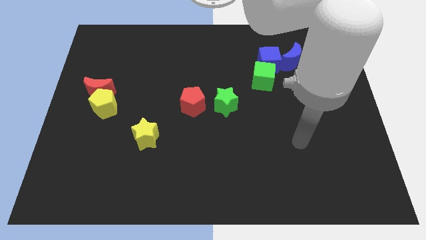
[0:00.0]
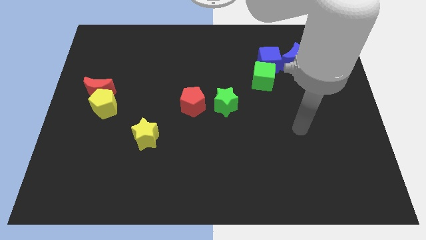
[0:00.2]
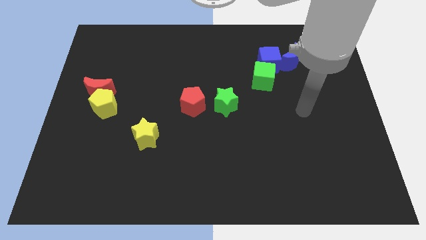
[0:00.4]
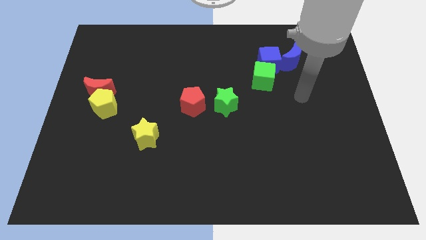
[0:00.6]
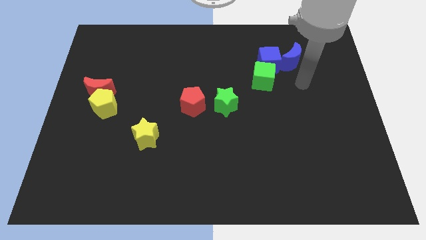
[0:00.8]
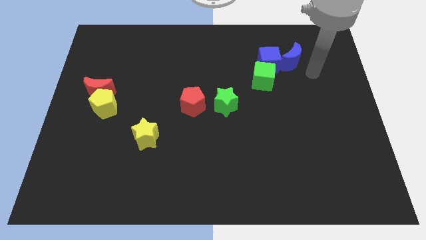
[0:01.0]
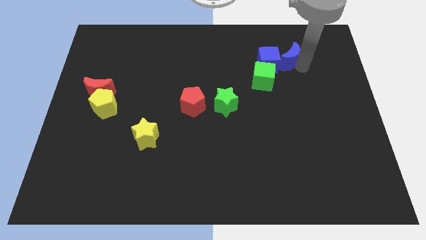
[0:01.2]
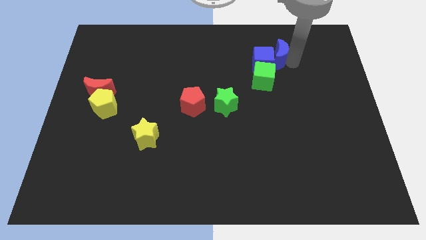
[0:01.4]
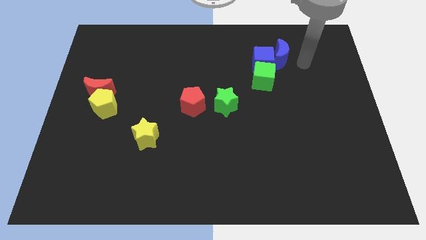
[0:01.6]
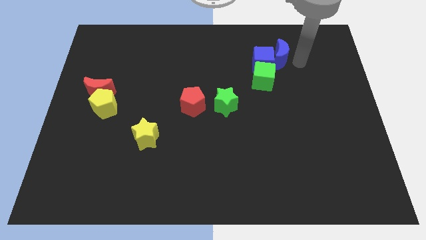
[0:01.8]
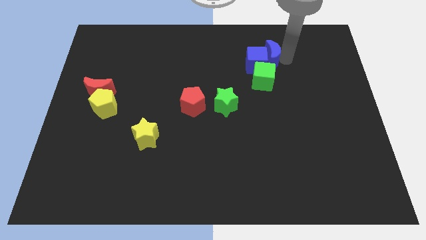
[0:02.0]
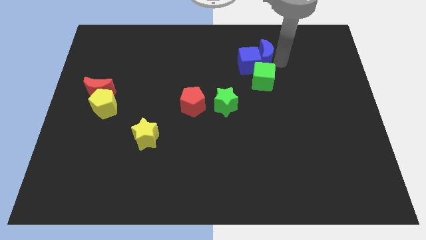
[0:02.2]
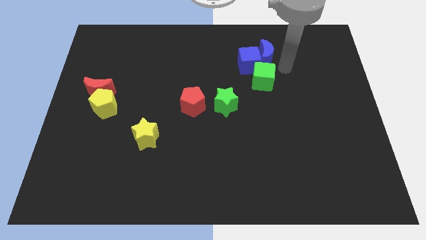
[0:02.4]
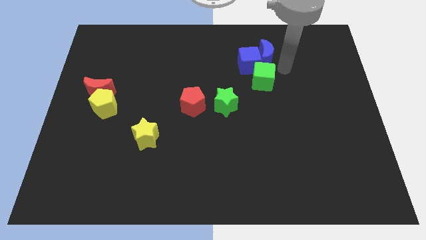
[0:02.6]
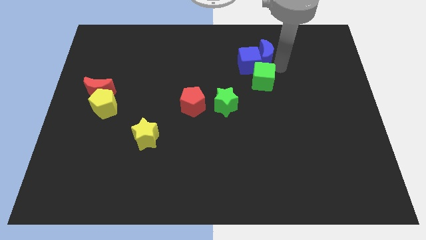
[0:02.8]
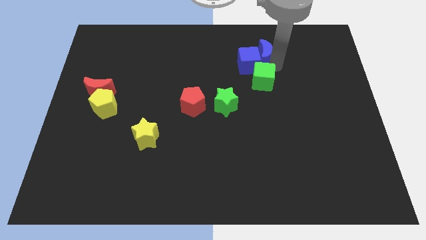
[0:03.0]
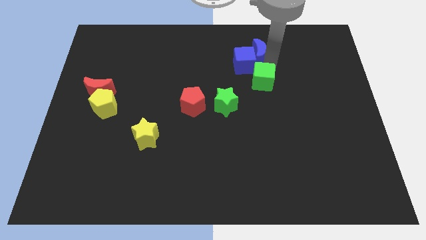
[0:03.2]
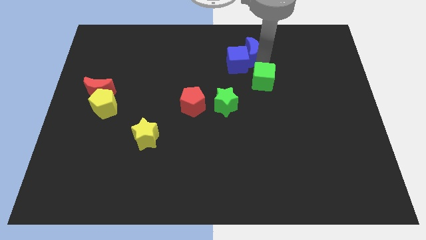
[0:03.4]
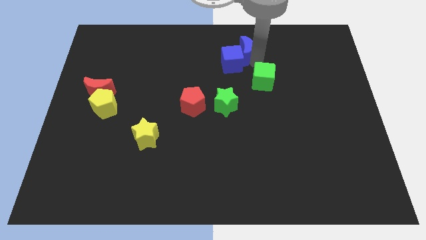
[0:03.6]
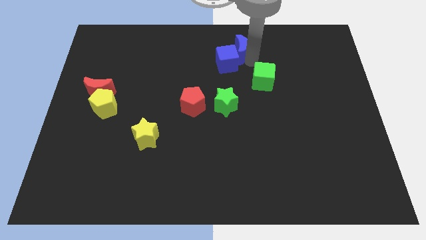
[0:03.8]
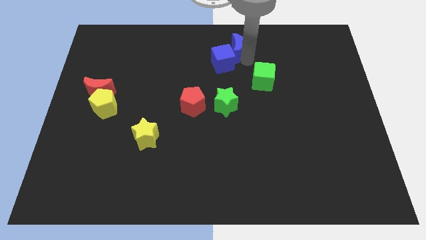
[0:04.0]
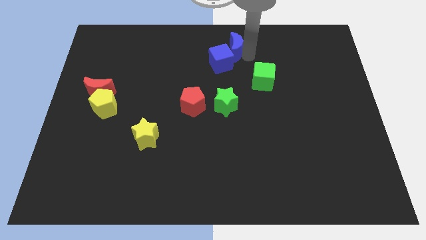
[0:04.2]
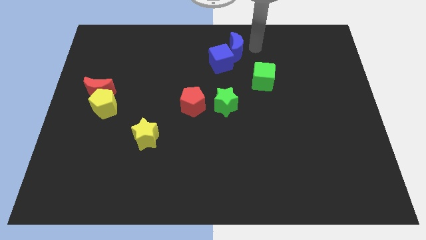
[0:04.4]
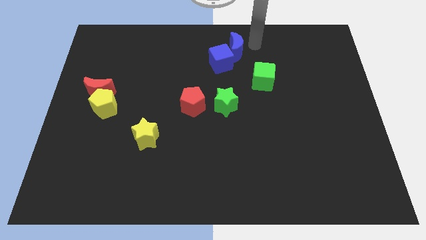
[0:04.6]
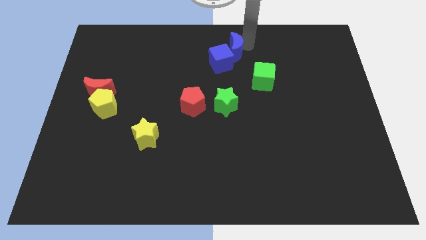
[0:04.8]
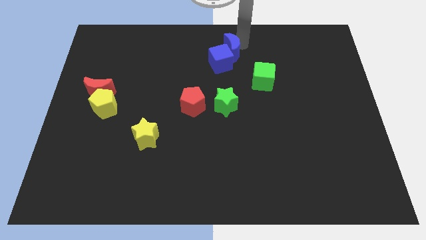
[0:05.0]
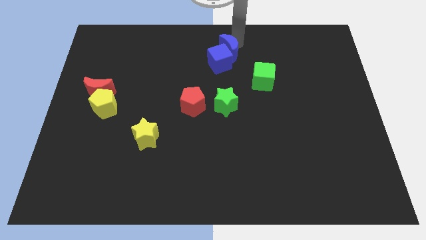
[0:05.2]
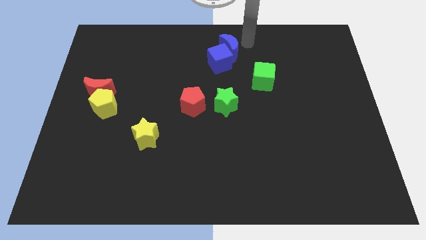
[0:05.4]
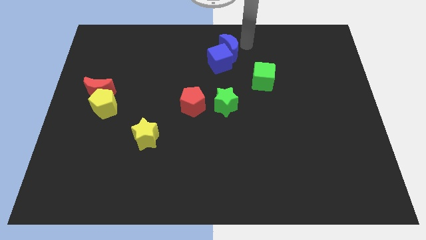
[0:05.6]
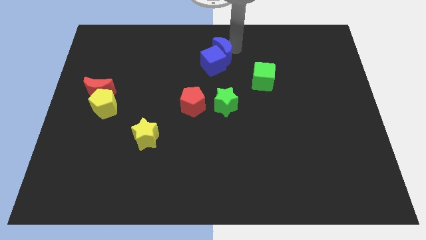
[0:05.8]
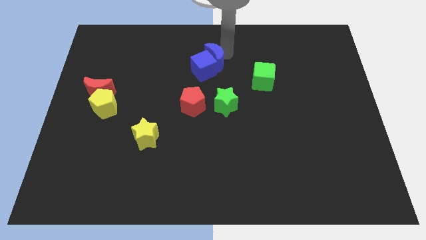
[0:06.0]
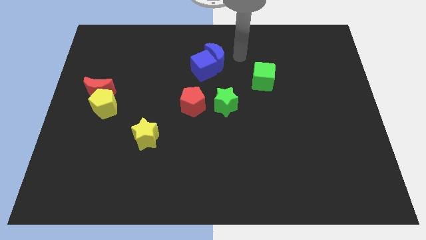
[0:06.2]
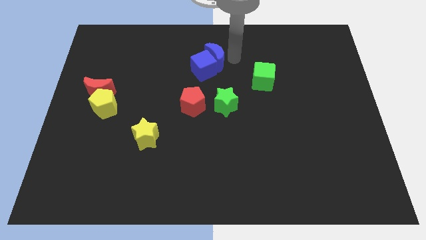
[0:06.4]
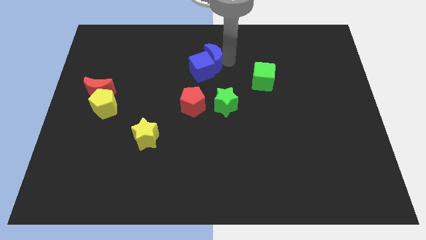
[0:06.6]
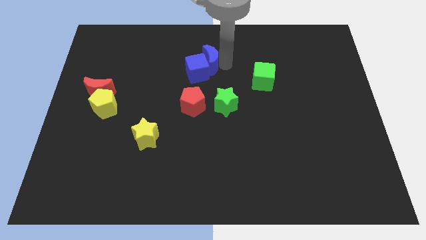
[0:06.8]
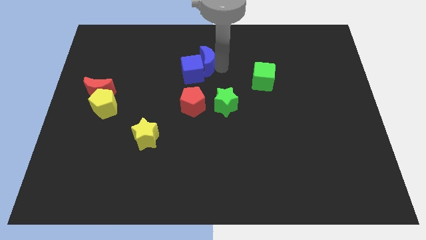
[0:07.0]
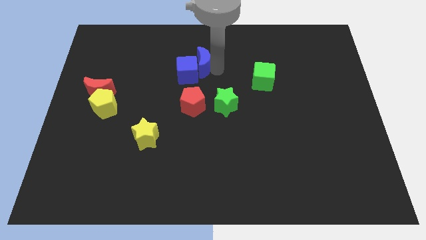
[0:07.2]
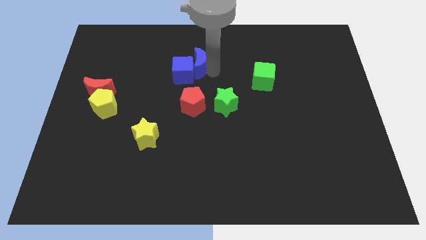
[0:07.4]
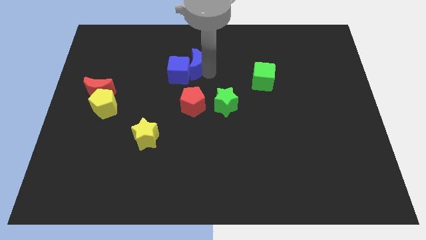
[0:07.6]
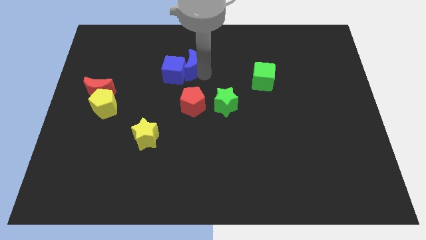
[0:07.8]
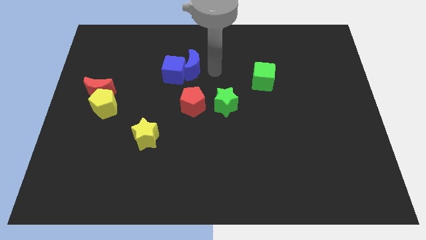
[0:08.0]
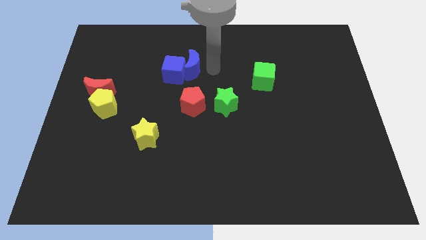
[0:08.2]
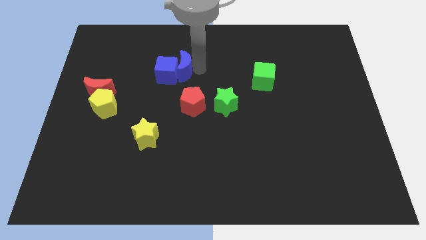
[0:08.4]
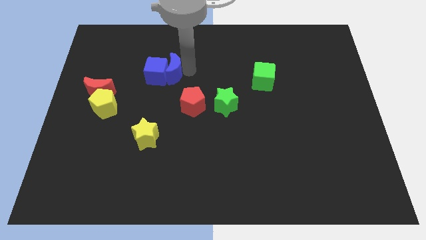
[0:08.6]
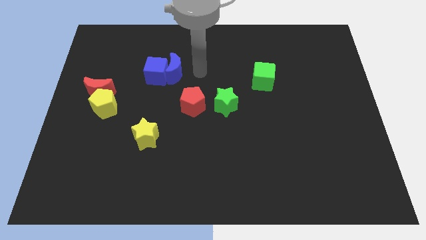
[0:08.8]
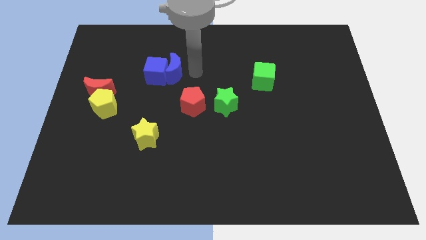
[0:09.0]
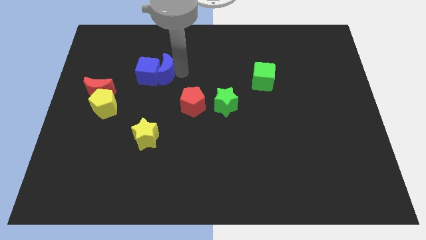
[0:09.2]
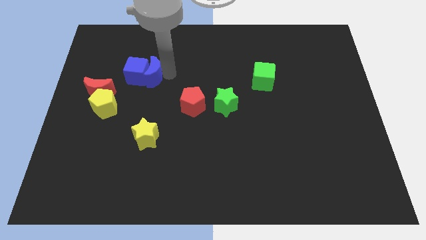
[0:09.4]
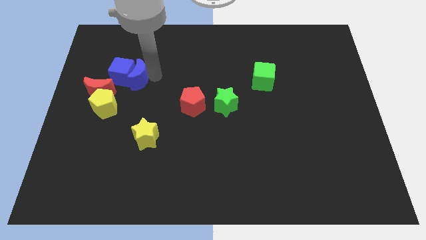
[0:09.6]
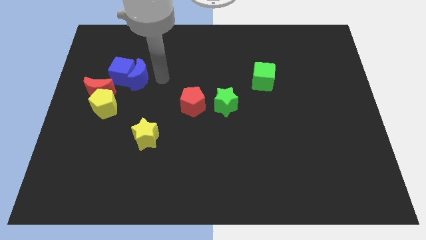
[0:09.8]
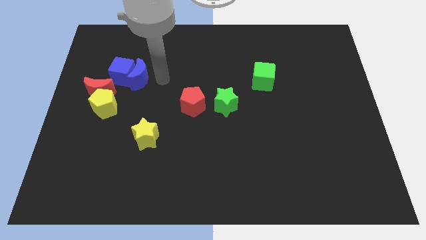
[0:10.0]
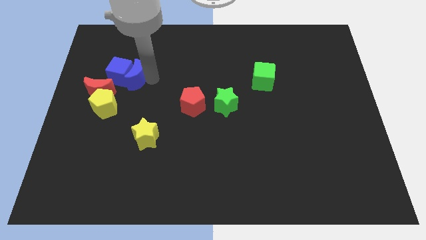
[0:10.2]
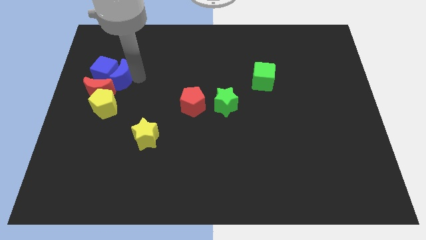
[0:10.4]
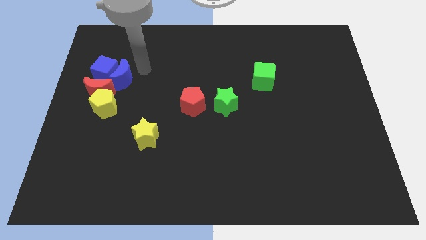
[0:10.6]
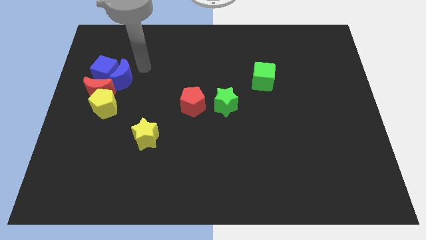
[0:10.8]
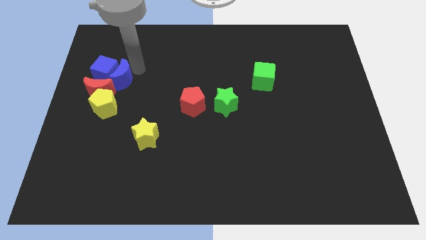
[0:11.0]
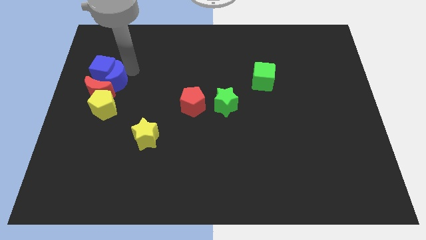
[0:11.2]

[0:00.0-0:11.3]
put the blue moon towards the red moon

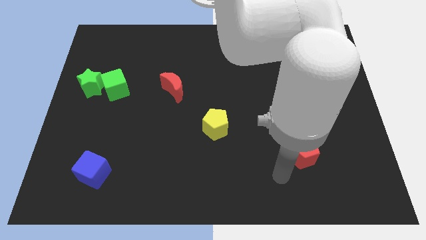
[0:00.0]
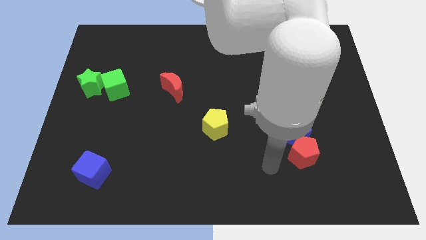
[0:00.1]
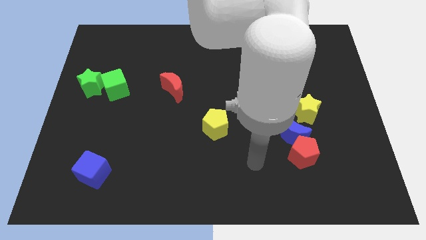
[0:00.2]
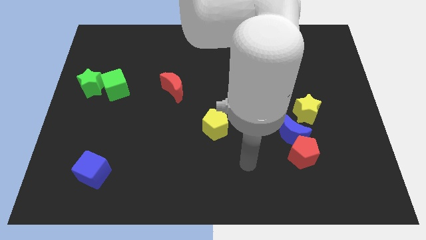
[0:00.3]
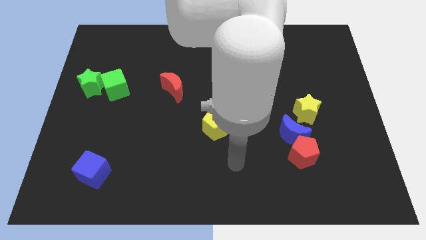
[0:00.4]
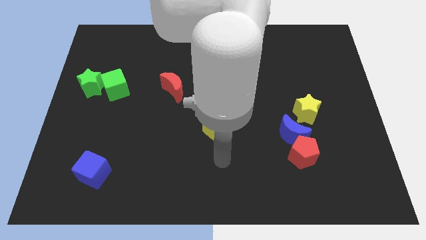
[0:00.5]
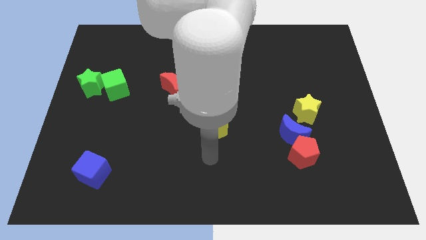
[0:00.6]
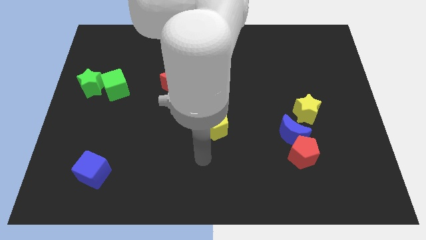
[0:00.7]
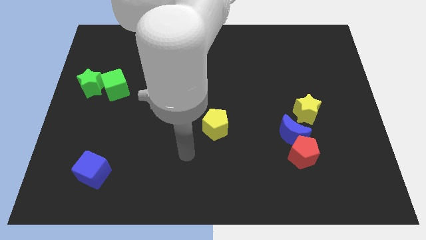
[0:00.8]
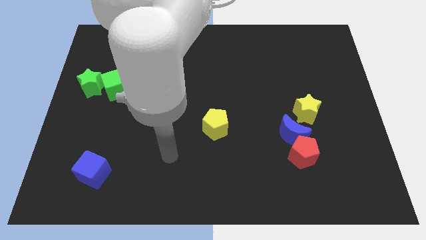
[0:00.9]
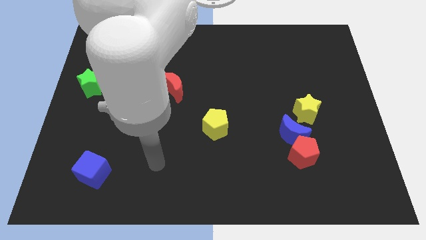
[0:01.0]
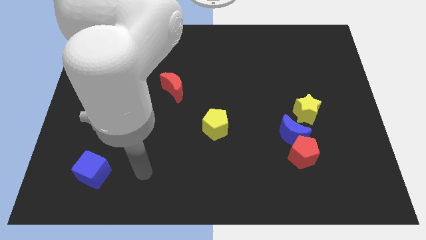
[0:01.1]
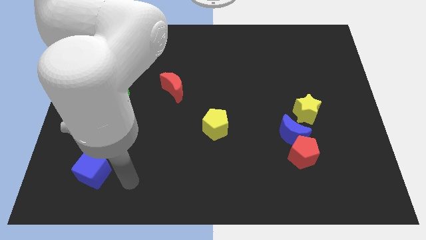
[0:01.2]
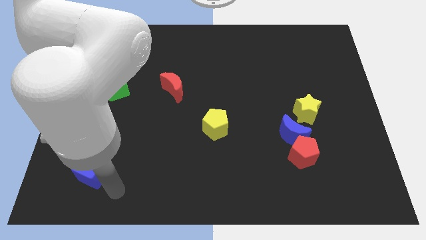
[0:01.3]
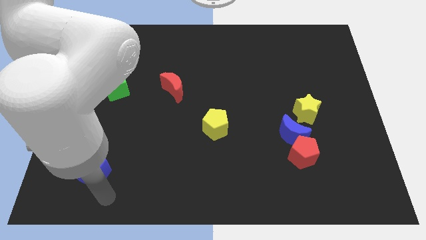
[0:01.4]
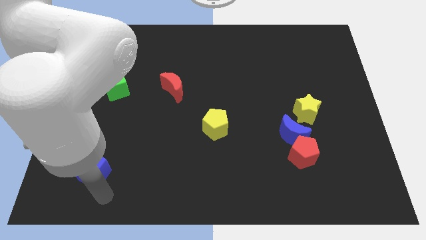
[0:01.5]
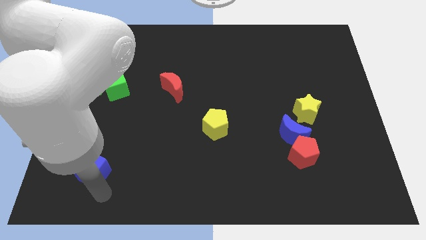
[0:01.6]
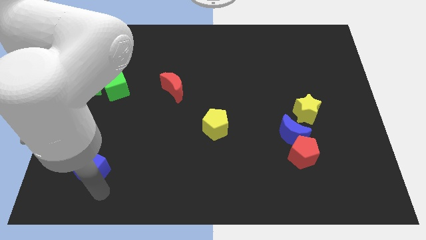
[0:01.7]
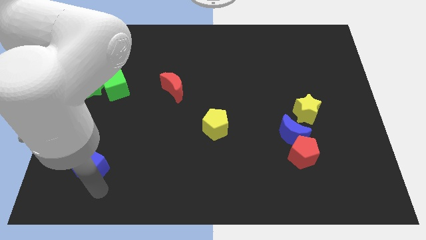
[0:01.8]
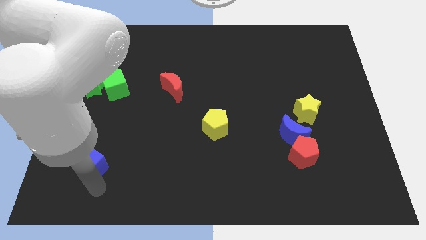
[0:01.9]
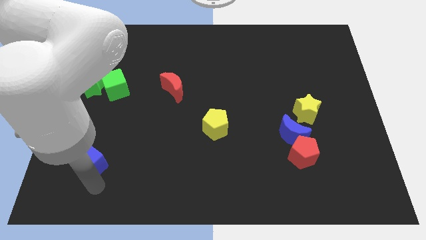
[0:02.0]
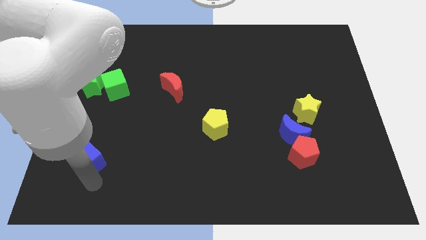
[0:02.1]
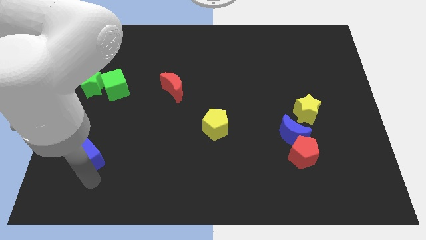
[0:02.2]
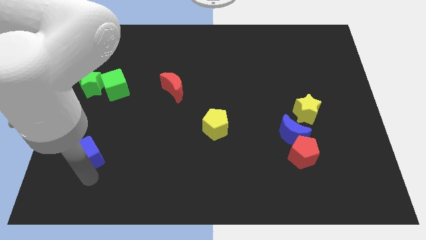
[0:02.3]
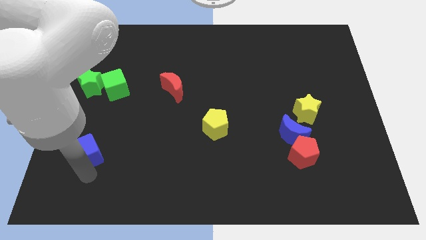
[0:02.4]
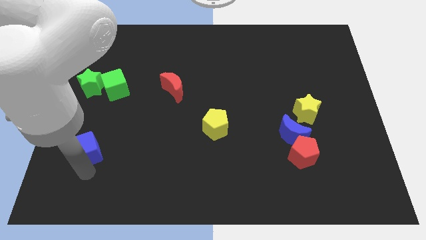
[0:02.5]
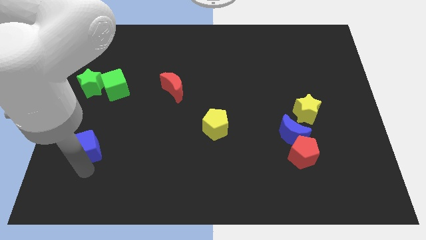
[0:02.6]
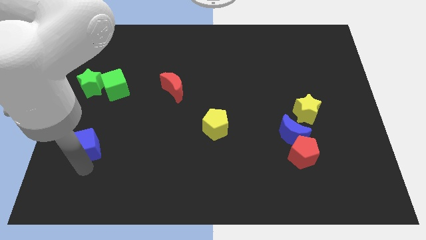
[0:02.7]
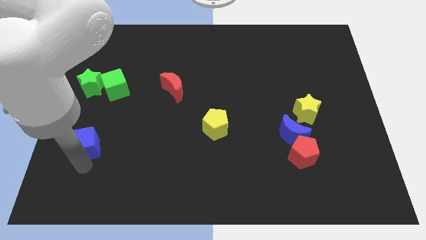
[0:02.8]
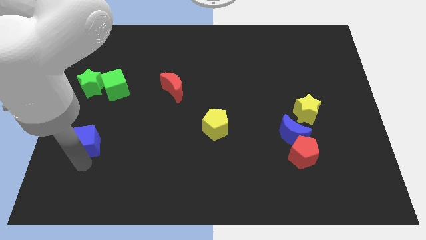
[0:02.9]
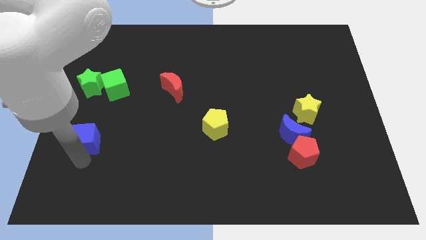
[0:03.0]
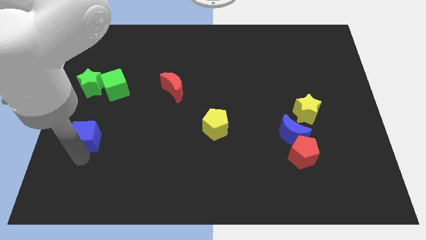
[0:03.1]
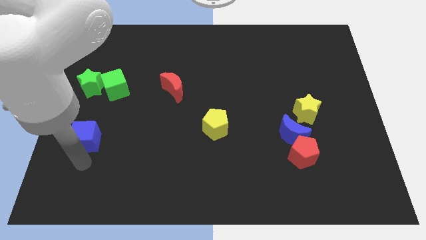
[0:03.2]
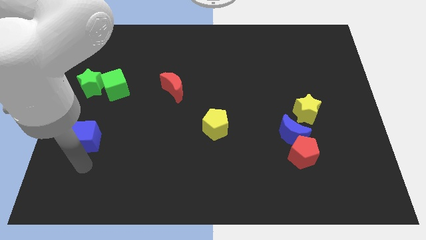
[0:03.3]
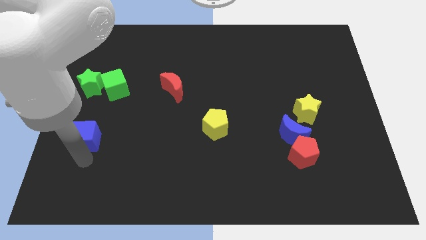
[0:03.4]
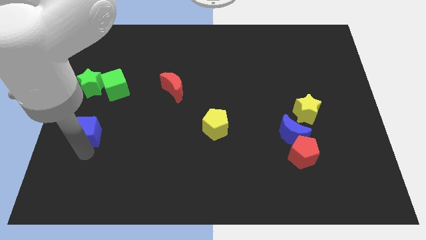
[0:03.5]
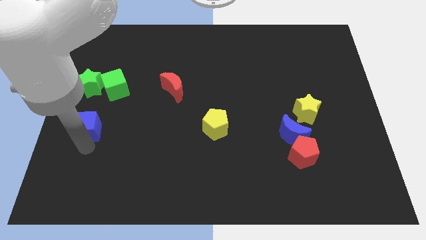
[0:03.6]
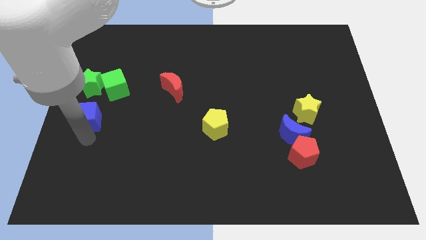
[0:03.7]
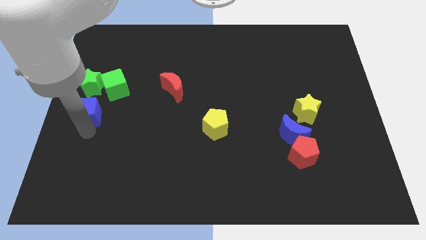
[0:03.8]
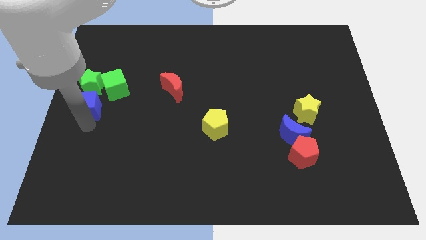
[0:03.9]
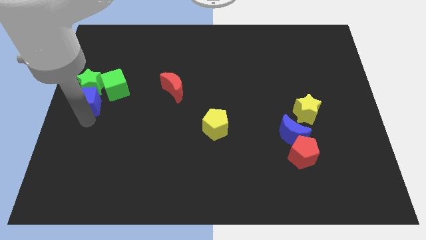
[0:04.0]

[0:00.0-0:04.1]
put the blue cube to the green star
